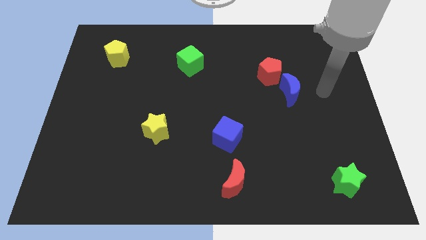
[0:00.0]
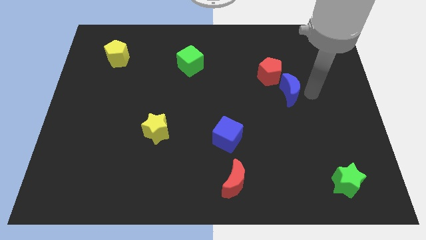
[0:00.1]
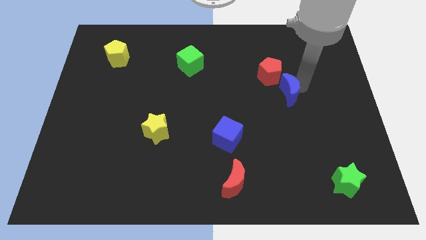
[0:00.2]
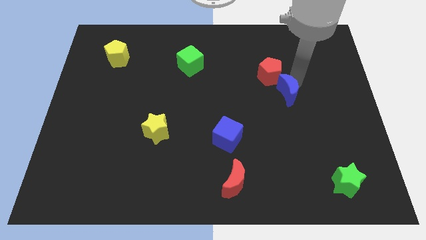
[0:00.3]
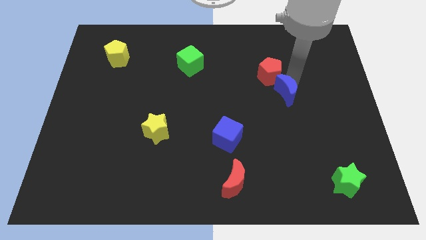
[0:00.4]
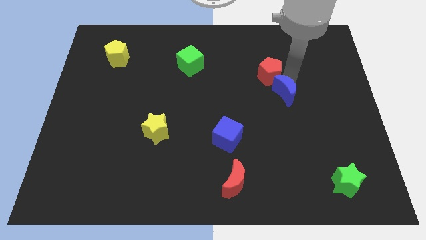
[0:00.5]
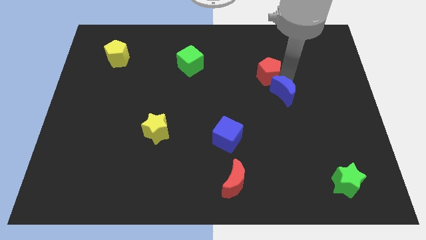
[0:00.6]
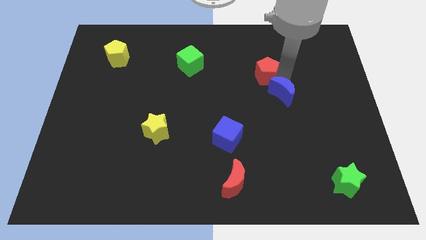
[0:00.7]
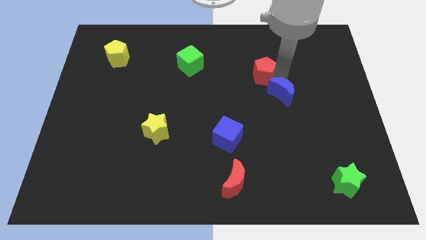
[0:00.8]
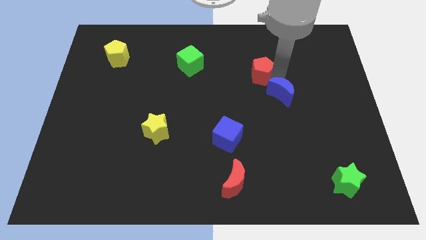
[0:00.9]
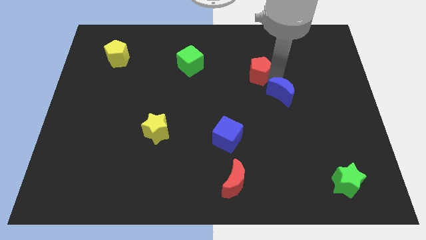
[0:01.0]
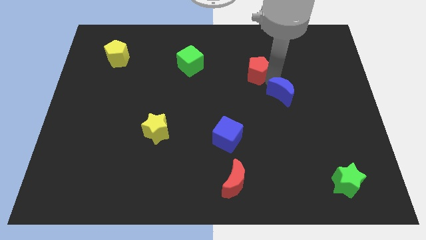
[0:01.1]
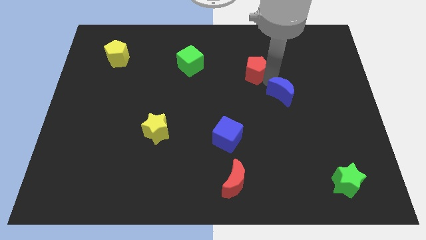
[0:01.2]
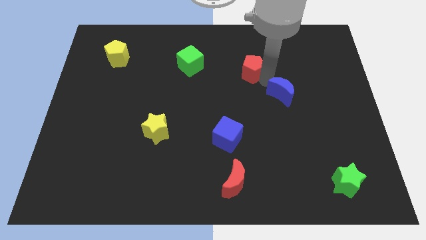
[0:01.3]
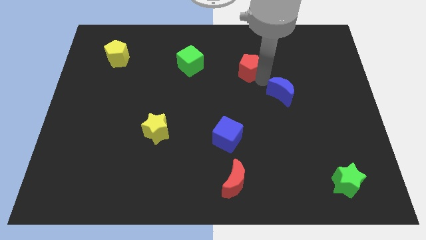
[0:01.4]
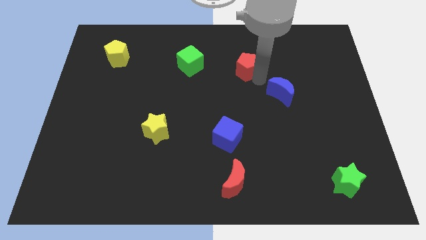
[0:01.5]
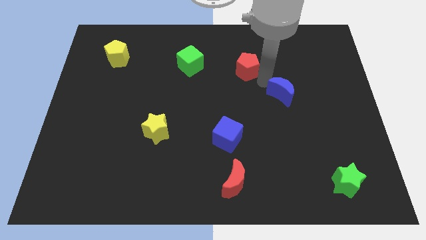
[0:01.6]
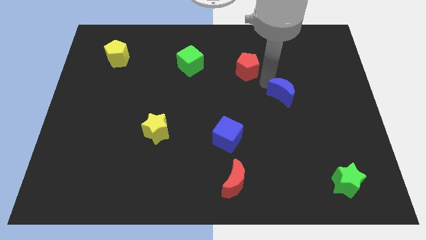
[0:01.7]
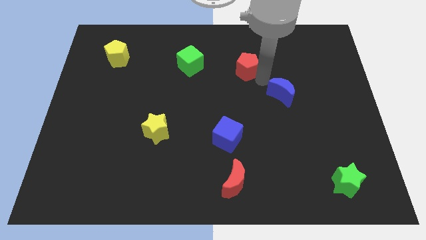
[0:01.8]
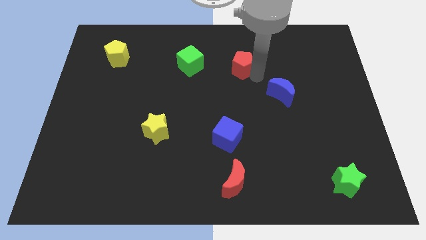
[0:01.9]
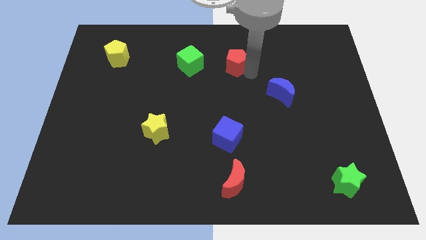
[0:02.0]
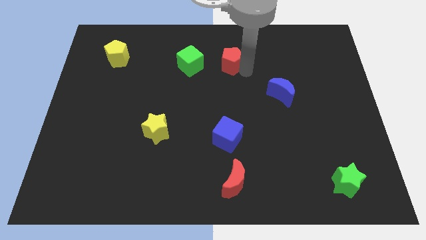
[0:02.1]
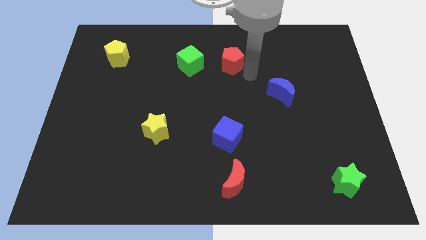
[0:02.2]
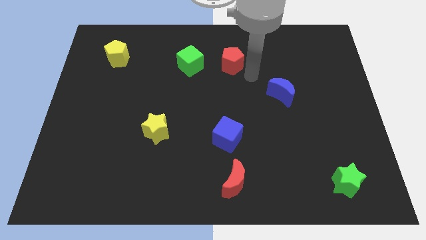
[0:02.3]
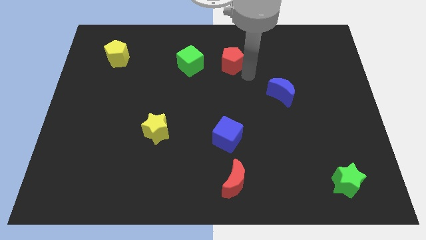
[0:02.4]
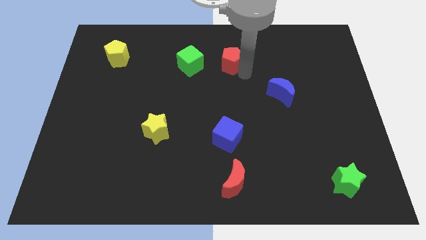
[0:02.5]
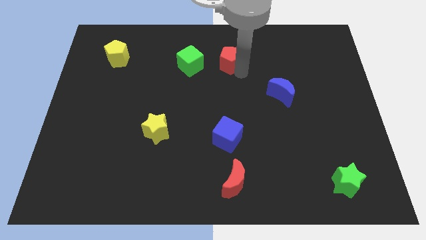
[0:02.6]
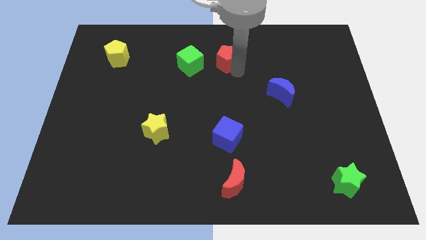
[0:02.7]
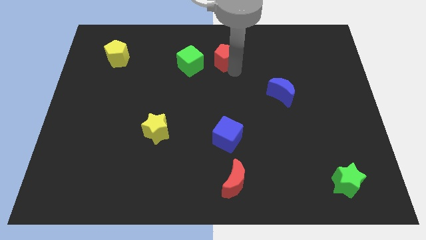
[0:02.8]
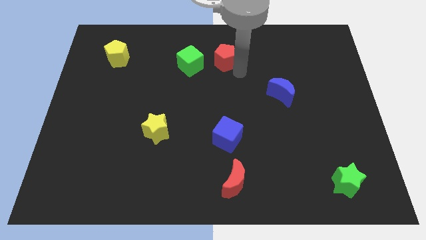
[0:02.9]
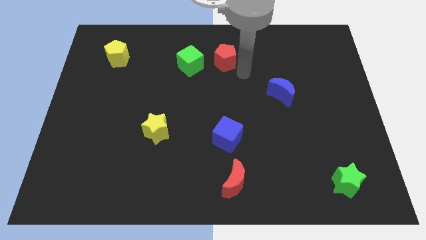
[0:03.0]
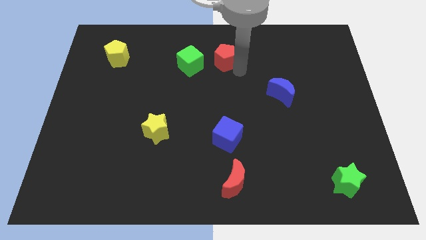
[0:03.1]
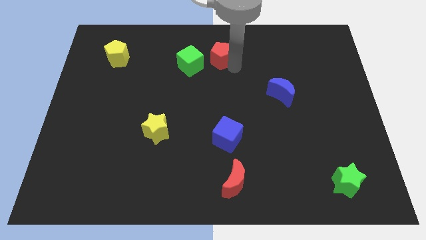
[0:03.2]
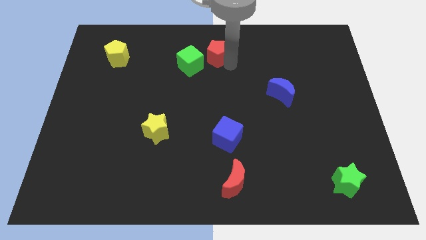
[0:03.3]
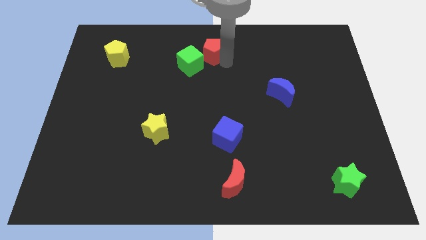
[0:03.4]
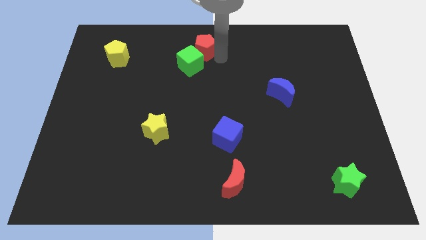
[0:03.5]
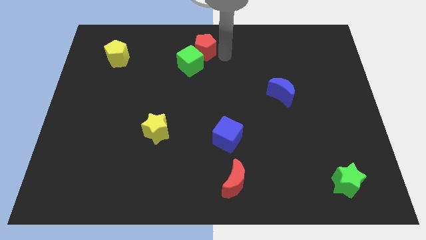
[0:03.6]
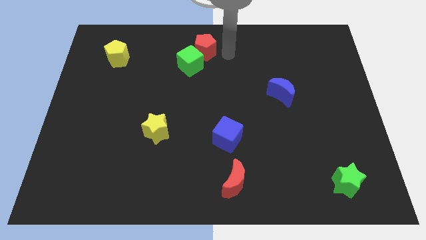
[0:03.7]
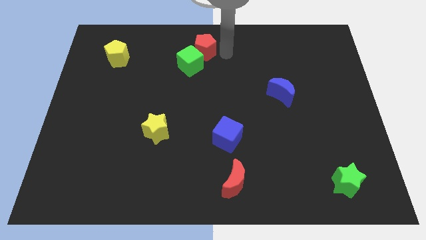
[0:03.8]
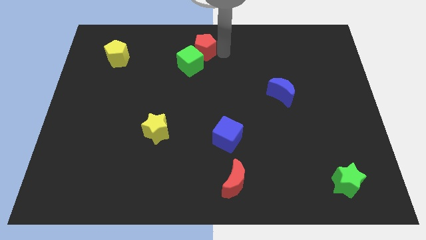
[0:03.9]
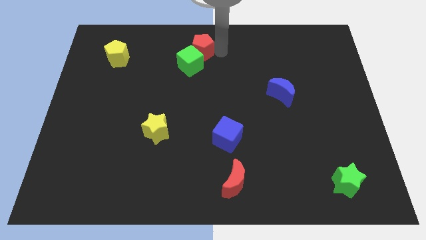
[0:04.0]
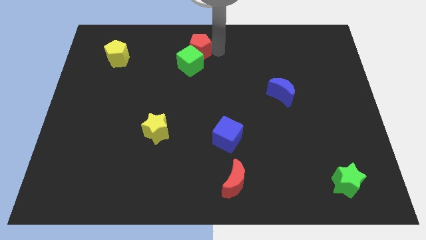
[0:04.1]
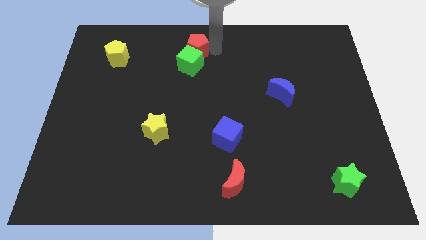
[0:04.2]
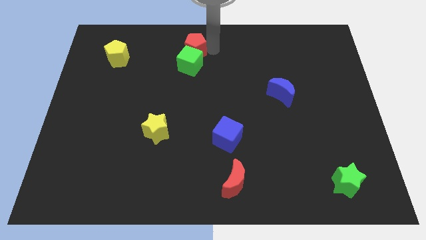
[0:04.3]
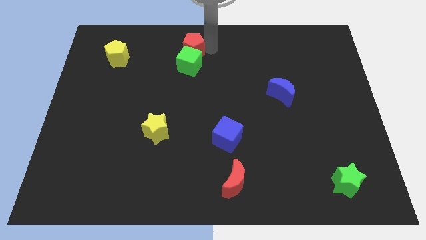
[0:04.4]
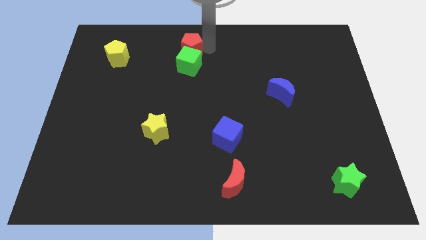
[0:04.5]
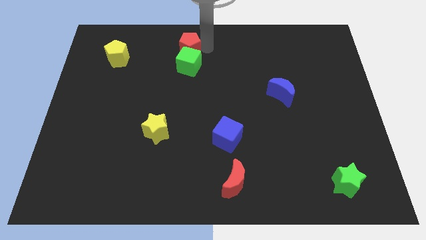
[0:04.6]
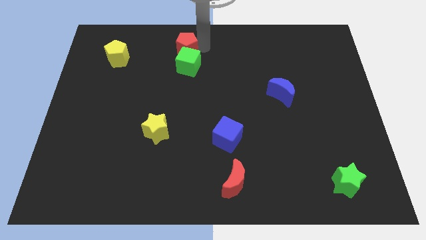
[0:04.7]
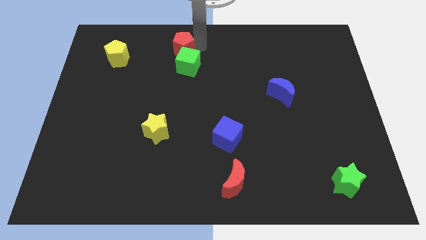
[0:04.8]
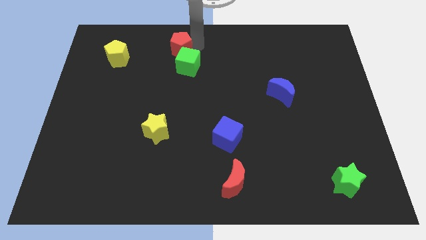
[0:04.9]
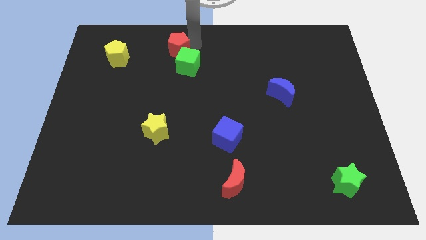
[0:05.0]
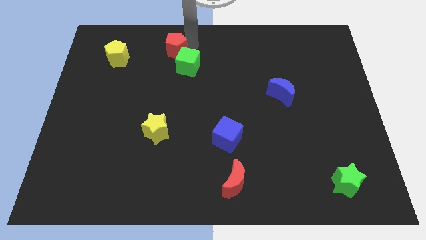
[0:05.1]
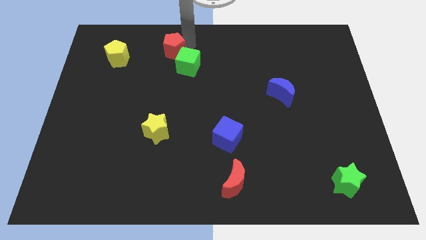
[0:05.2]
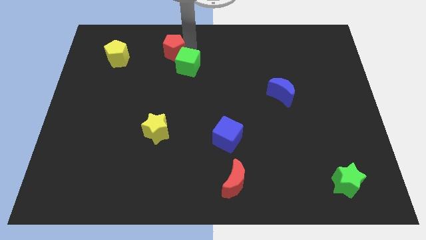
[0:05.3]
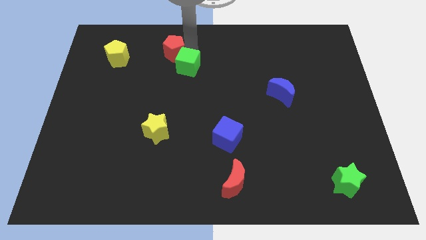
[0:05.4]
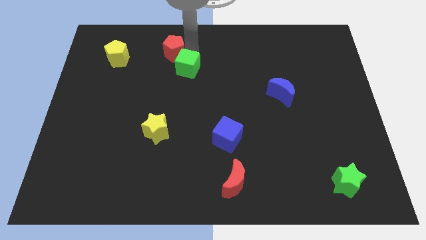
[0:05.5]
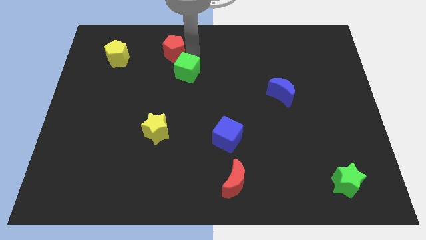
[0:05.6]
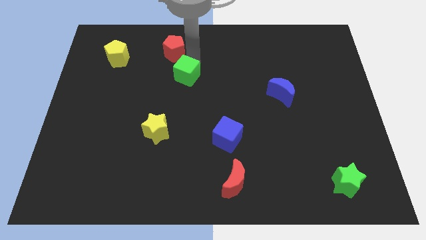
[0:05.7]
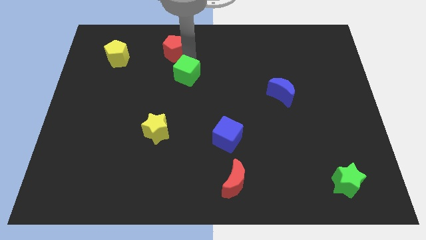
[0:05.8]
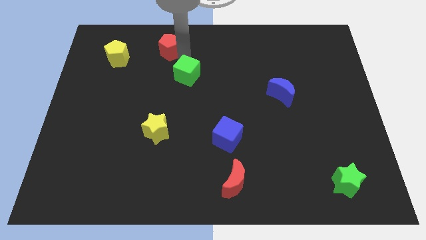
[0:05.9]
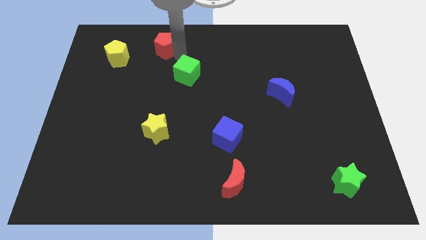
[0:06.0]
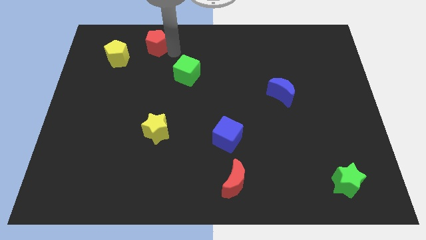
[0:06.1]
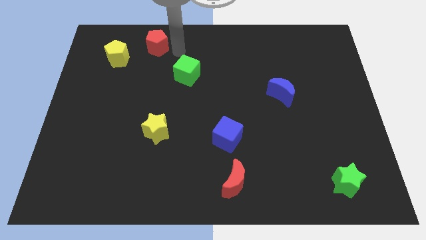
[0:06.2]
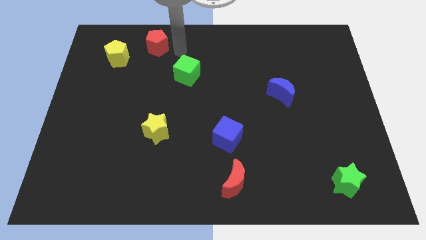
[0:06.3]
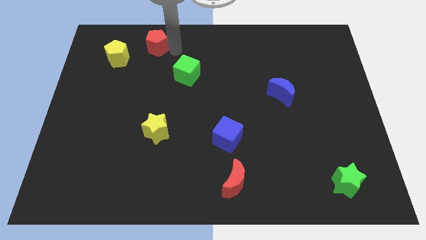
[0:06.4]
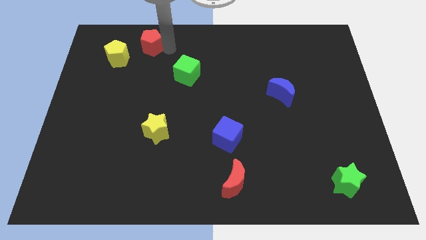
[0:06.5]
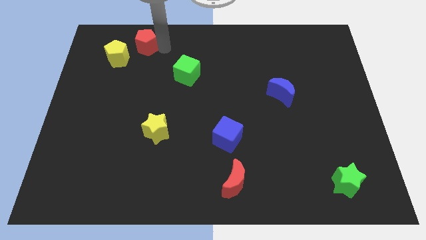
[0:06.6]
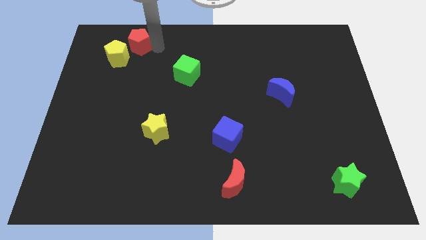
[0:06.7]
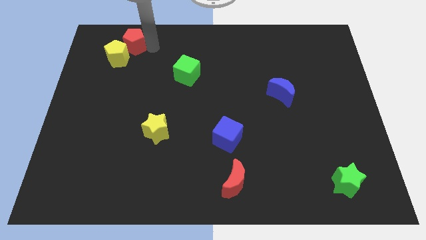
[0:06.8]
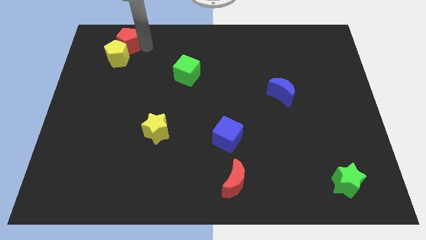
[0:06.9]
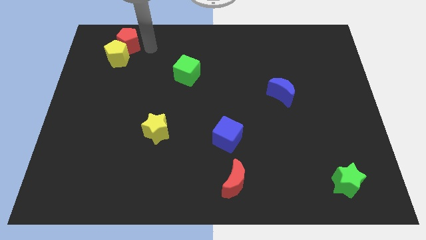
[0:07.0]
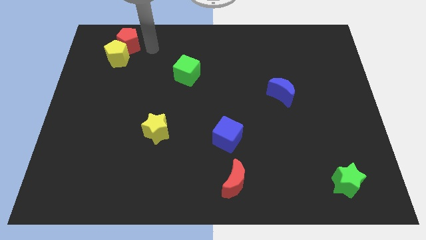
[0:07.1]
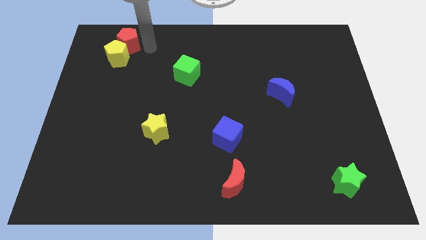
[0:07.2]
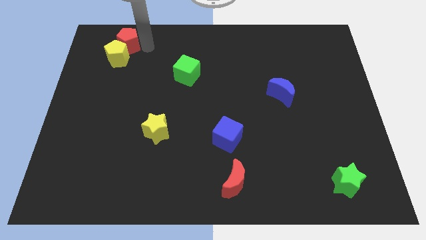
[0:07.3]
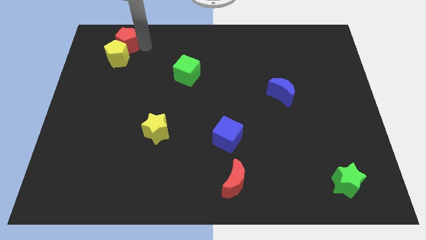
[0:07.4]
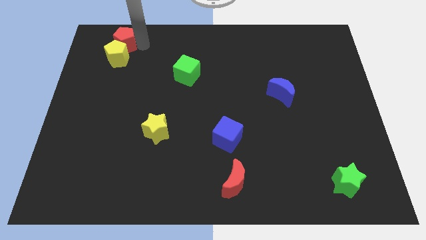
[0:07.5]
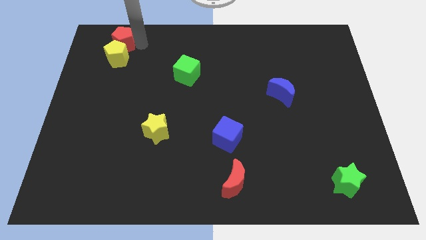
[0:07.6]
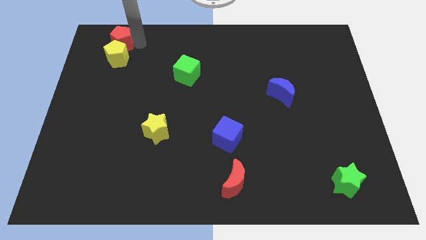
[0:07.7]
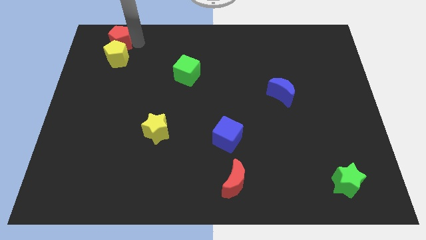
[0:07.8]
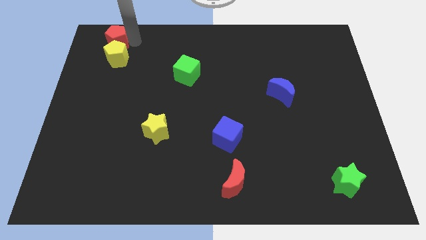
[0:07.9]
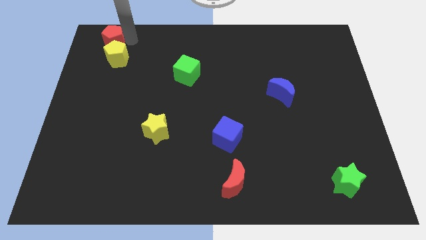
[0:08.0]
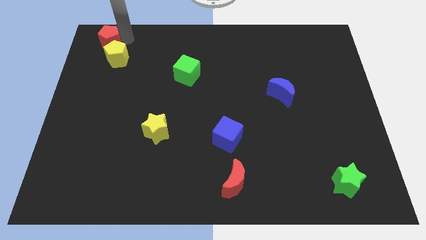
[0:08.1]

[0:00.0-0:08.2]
slide the red pentagon to the top left
